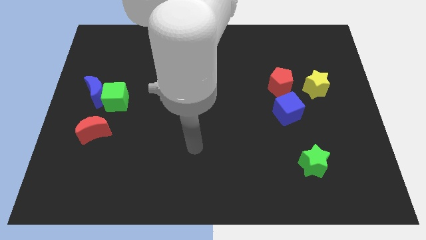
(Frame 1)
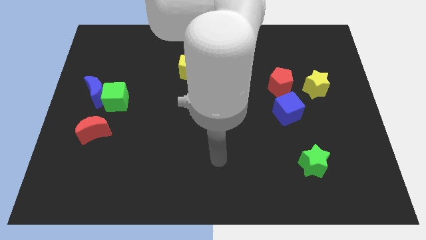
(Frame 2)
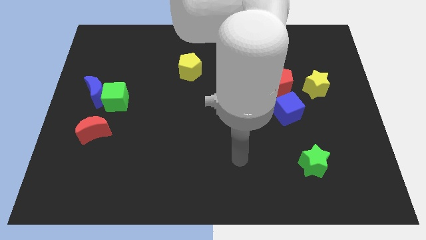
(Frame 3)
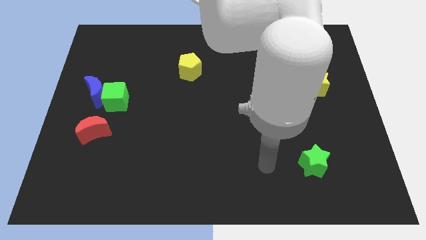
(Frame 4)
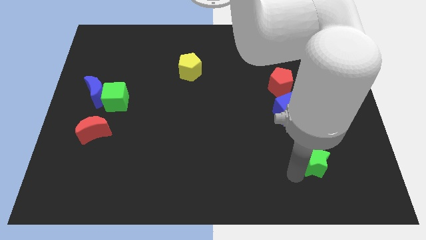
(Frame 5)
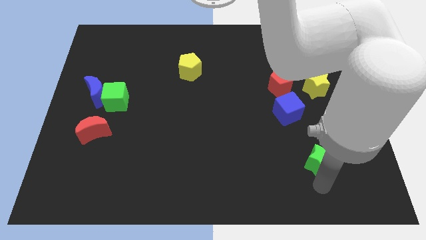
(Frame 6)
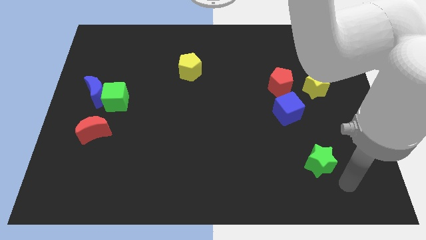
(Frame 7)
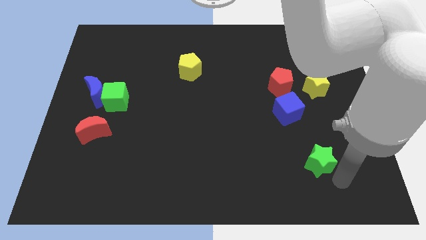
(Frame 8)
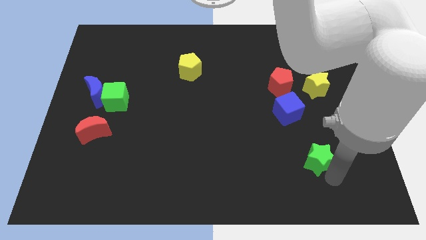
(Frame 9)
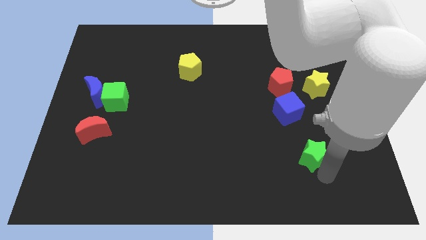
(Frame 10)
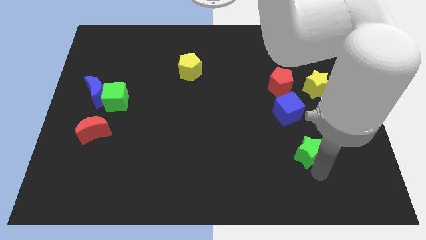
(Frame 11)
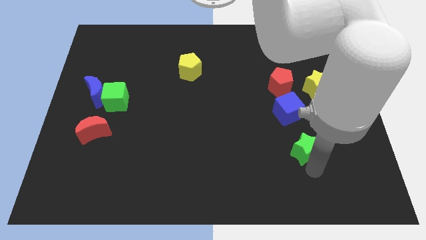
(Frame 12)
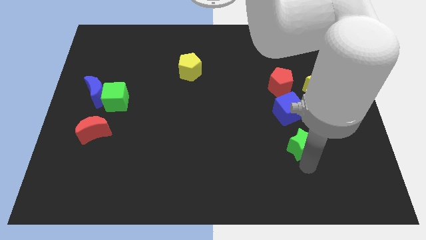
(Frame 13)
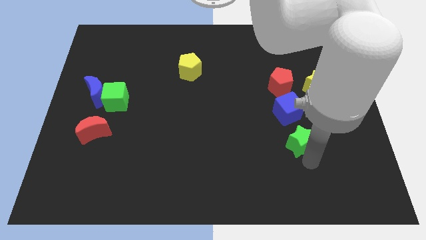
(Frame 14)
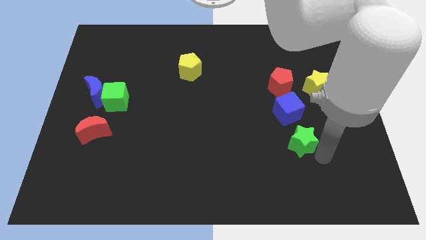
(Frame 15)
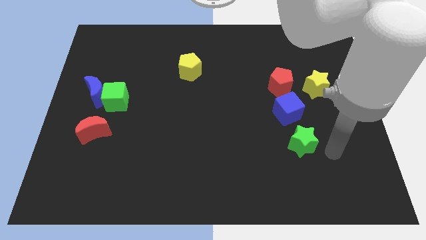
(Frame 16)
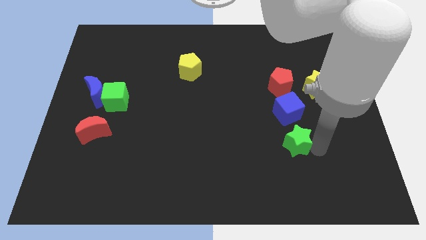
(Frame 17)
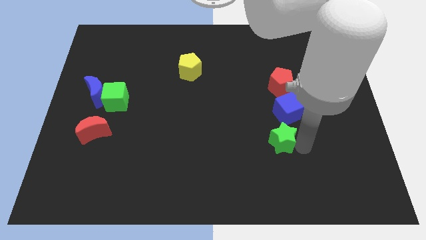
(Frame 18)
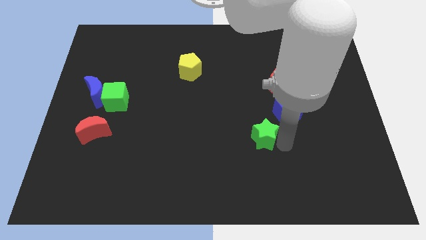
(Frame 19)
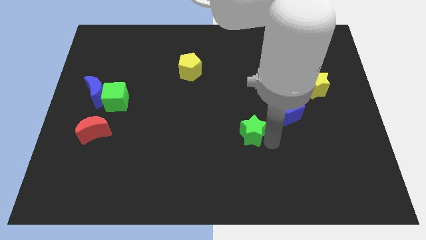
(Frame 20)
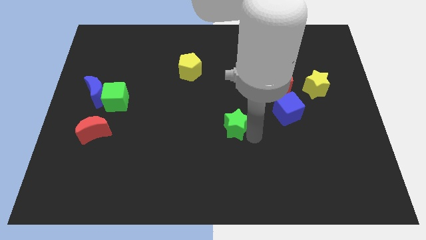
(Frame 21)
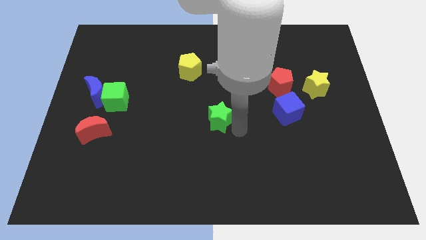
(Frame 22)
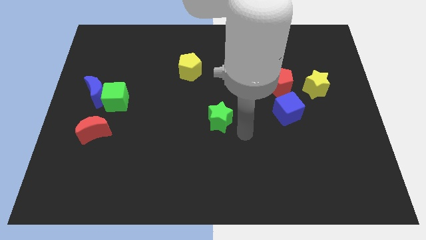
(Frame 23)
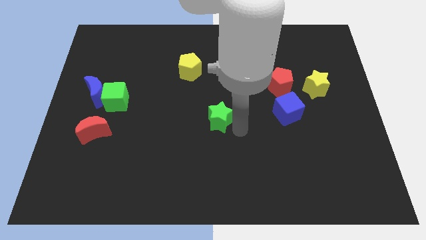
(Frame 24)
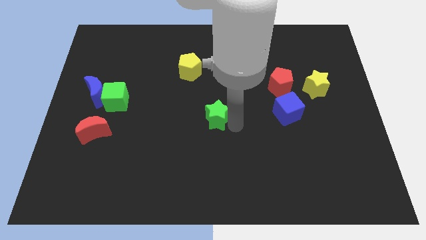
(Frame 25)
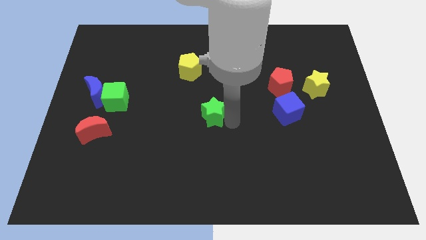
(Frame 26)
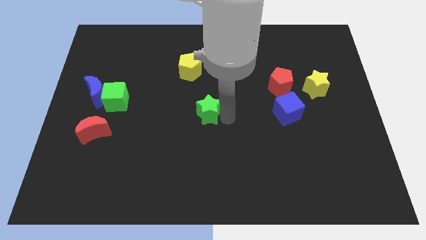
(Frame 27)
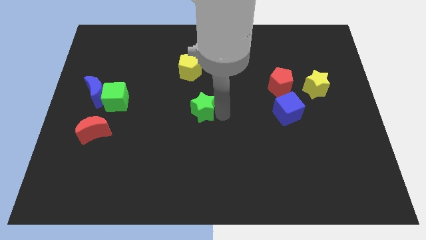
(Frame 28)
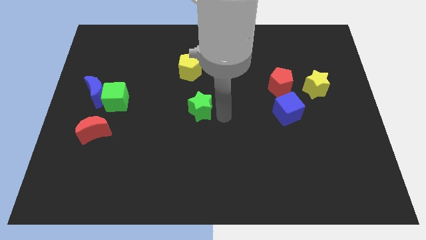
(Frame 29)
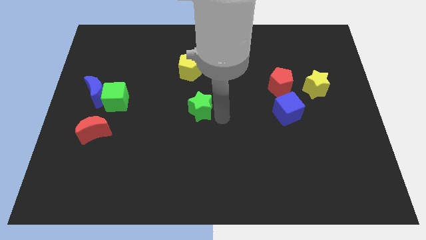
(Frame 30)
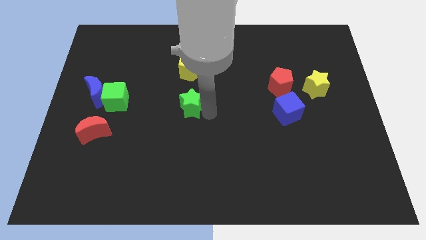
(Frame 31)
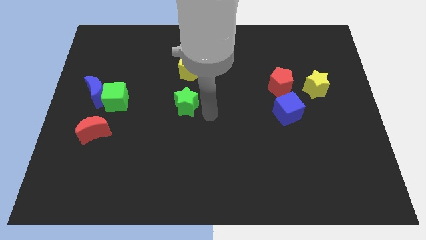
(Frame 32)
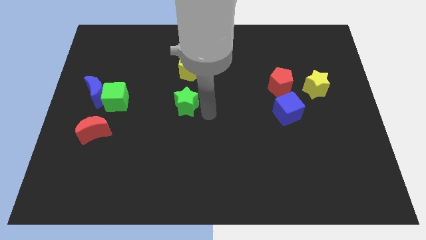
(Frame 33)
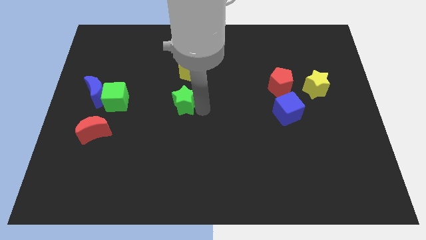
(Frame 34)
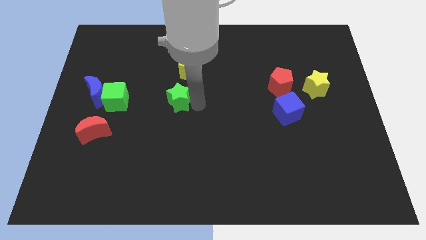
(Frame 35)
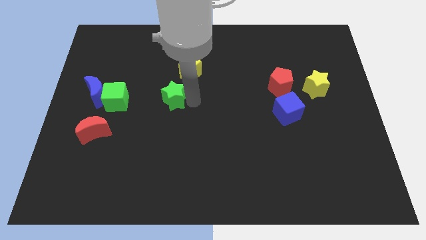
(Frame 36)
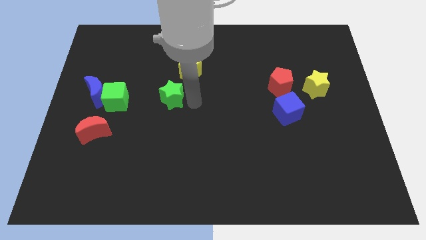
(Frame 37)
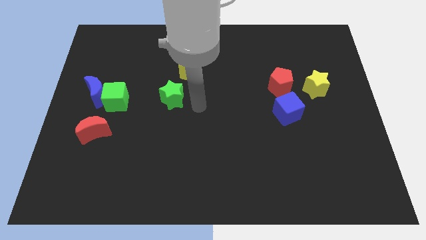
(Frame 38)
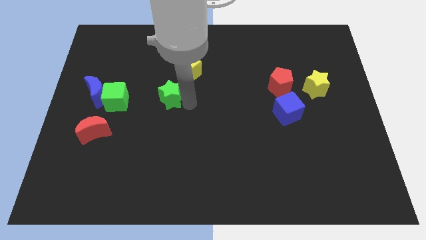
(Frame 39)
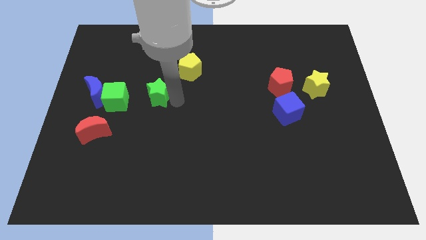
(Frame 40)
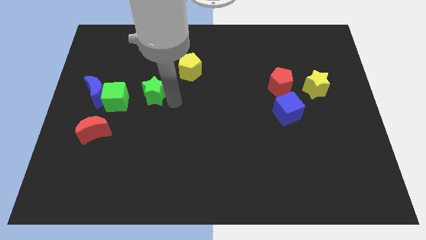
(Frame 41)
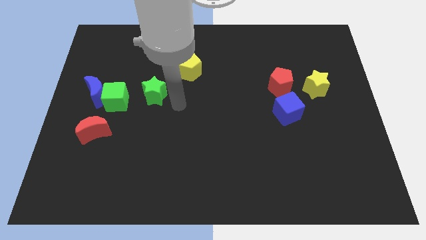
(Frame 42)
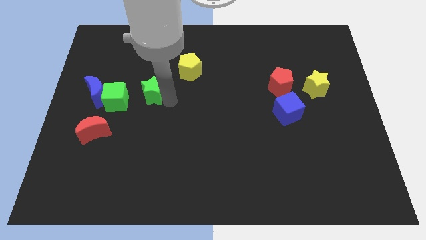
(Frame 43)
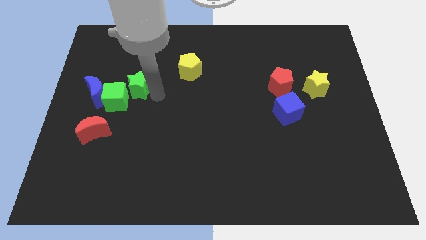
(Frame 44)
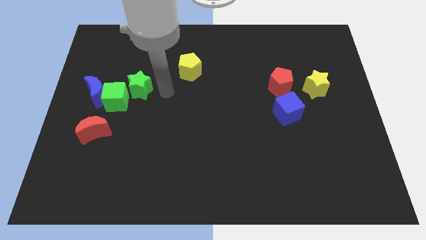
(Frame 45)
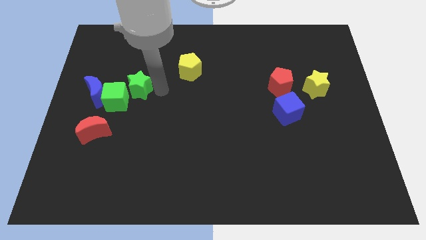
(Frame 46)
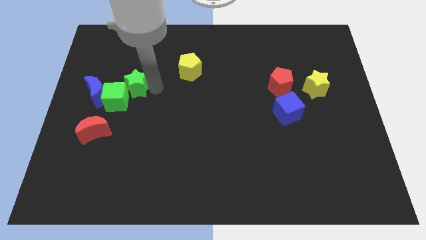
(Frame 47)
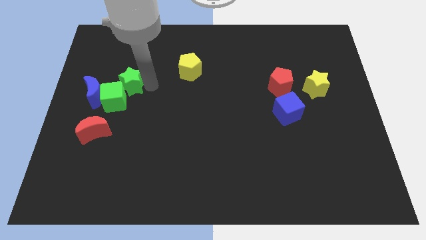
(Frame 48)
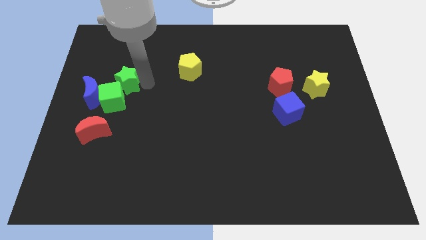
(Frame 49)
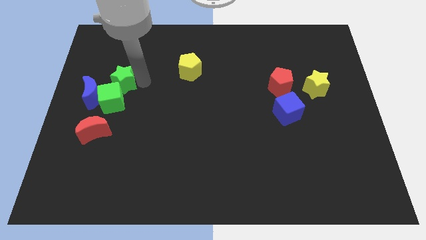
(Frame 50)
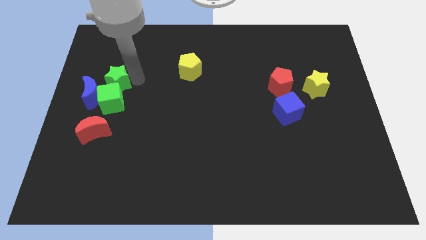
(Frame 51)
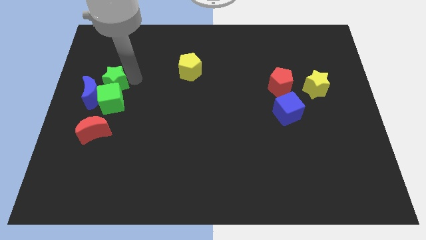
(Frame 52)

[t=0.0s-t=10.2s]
move the green star towards the blue moon

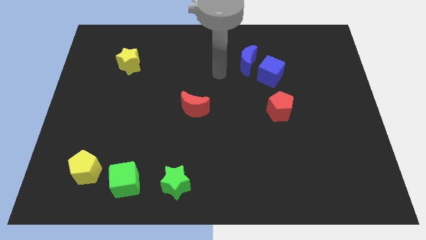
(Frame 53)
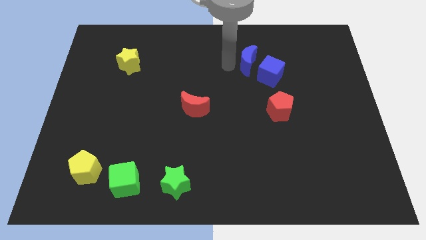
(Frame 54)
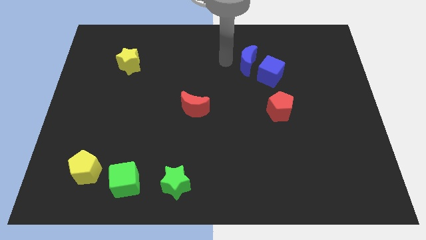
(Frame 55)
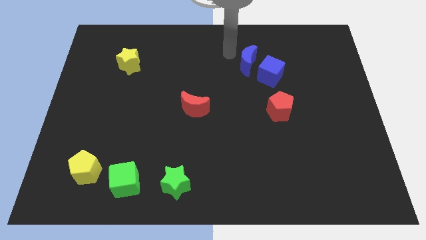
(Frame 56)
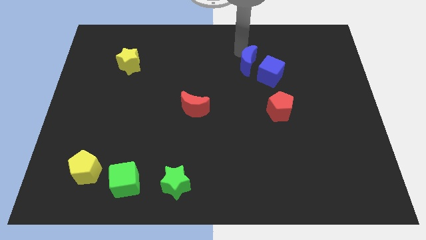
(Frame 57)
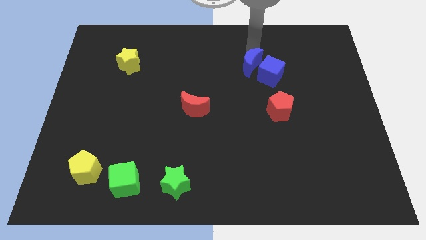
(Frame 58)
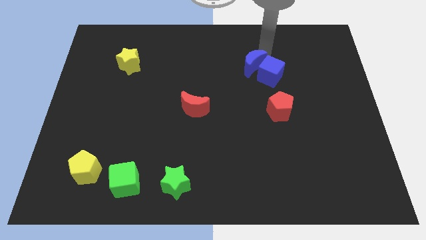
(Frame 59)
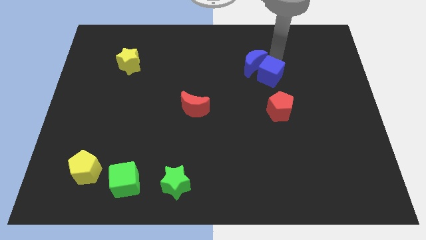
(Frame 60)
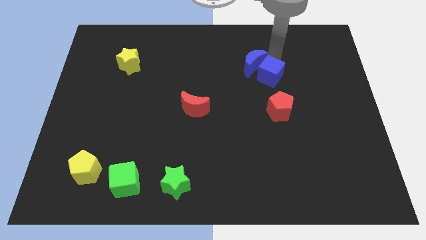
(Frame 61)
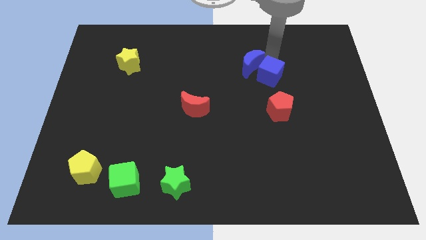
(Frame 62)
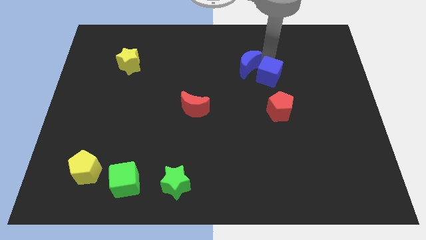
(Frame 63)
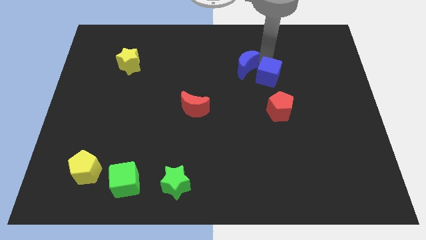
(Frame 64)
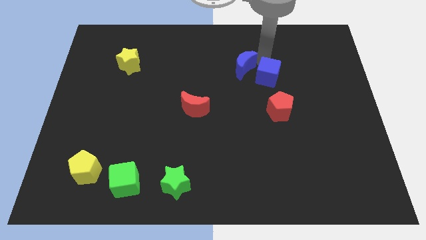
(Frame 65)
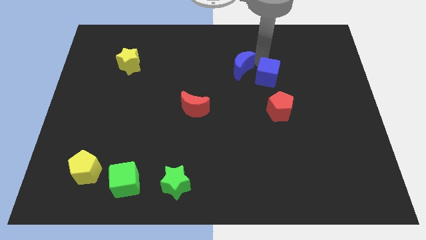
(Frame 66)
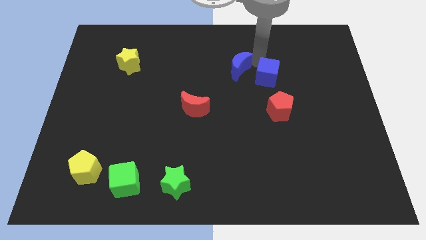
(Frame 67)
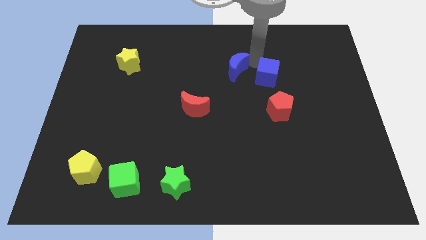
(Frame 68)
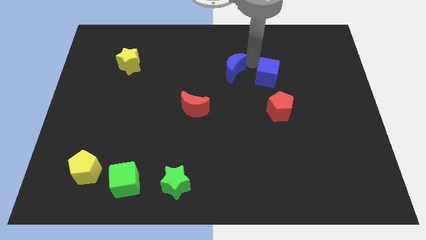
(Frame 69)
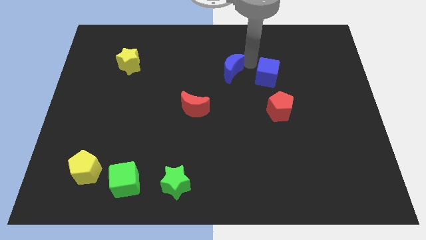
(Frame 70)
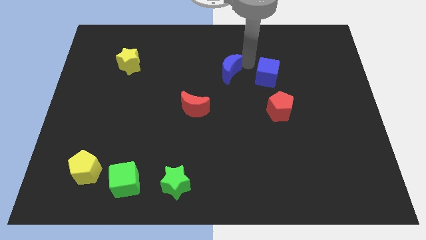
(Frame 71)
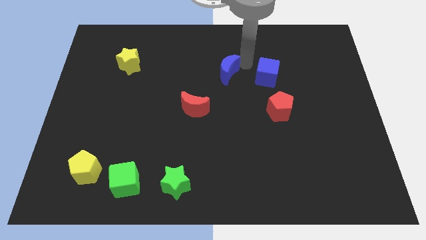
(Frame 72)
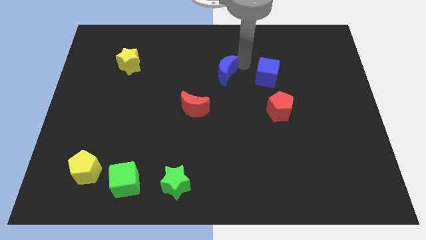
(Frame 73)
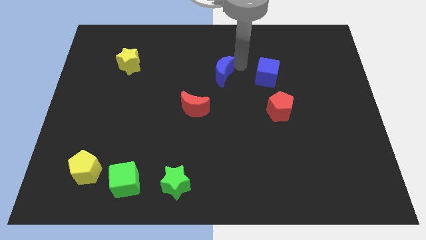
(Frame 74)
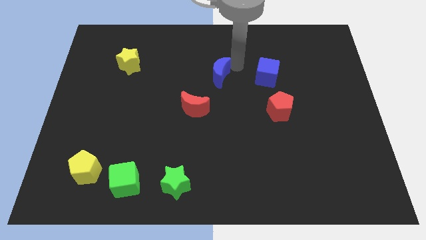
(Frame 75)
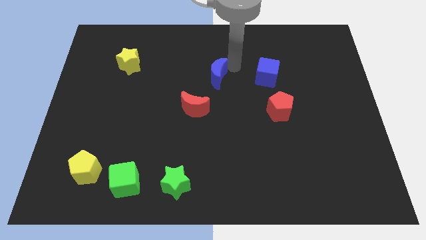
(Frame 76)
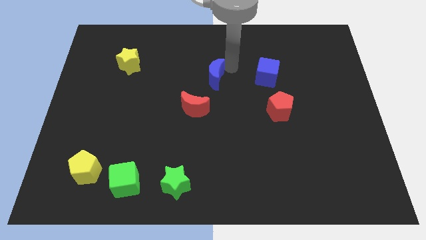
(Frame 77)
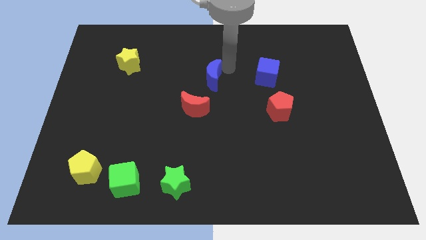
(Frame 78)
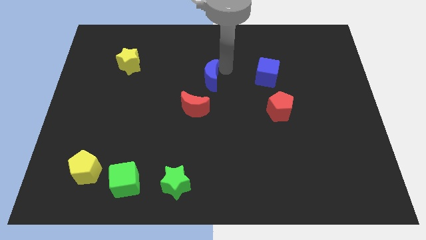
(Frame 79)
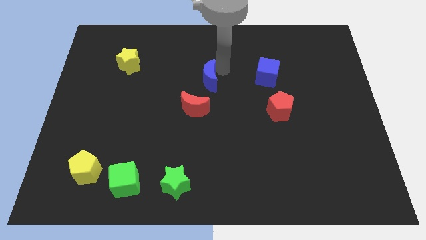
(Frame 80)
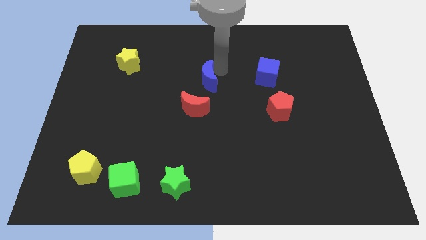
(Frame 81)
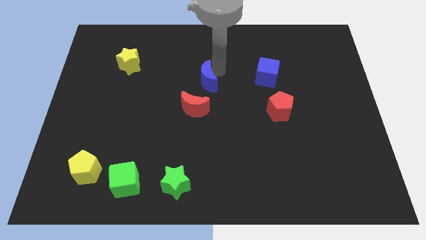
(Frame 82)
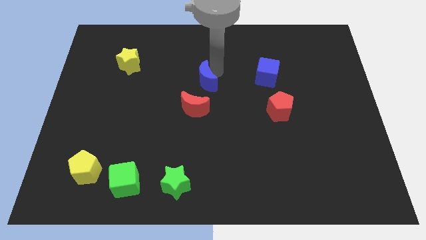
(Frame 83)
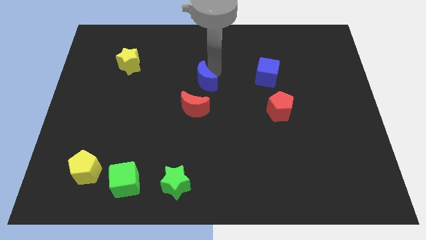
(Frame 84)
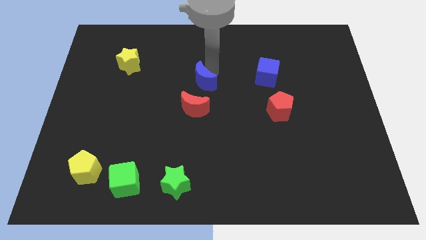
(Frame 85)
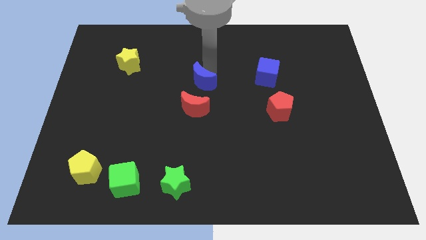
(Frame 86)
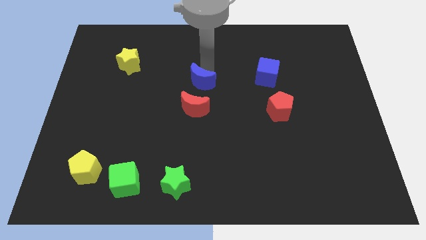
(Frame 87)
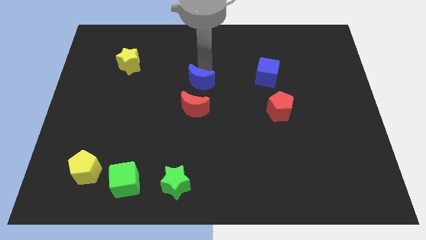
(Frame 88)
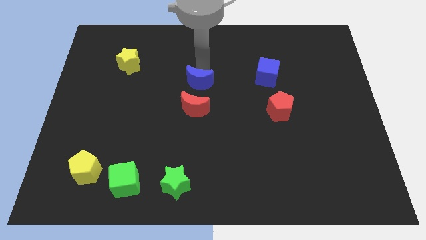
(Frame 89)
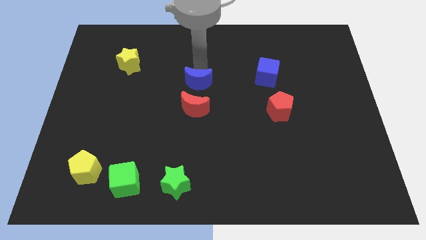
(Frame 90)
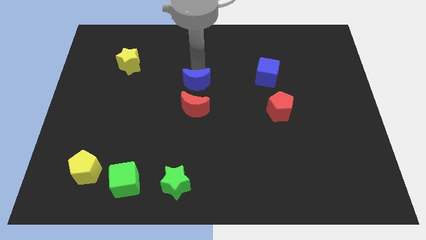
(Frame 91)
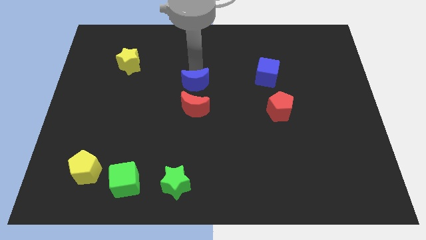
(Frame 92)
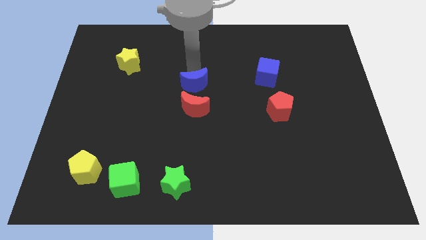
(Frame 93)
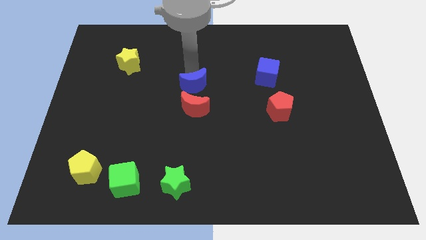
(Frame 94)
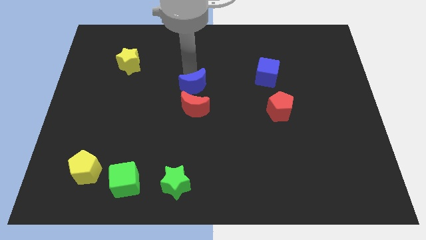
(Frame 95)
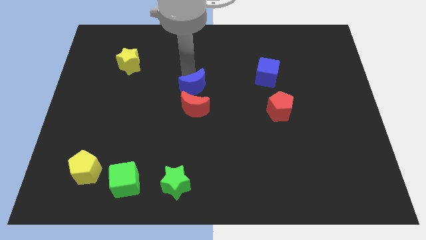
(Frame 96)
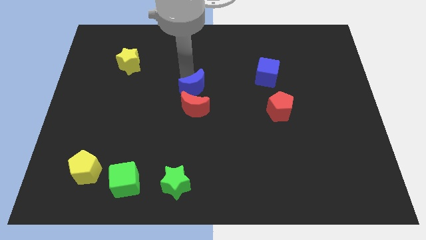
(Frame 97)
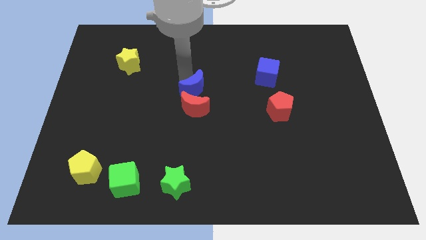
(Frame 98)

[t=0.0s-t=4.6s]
move the blue moon close to the red moon
